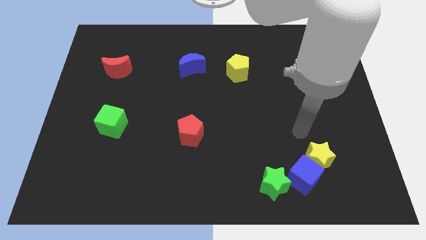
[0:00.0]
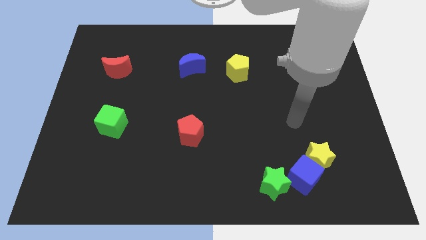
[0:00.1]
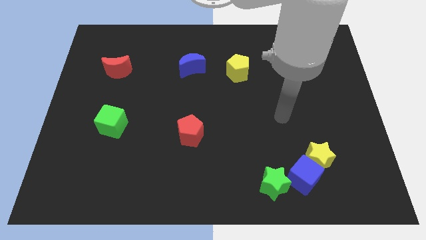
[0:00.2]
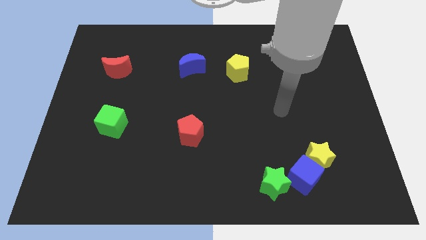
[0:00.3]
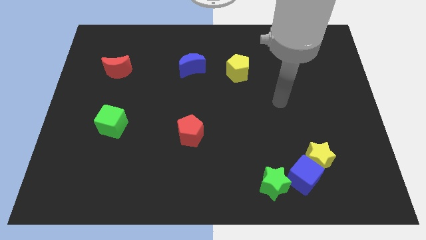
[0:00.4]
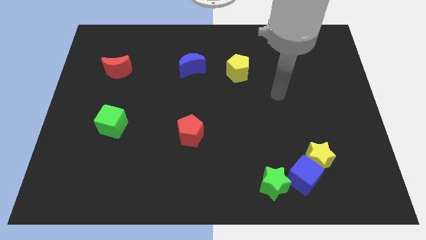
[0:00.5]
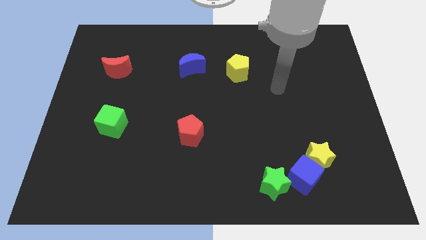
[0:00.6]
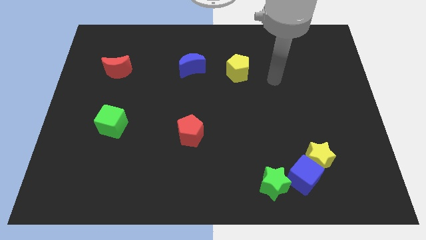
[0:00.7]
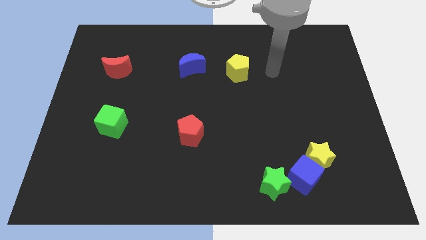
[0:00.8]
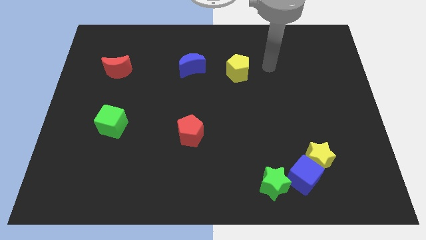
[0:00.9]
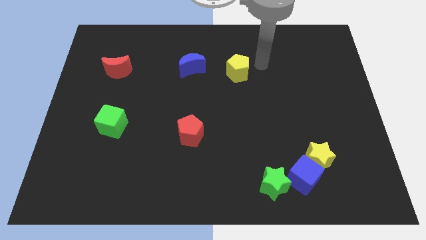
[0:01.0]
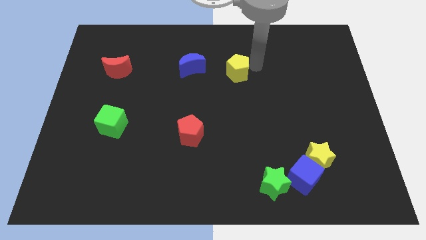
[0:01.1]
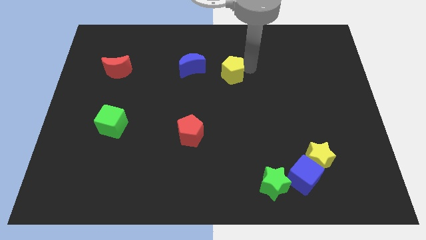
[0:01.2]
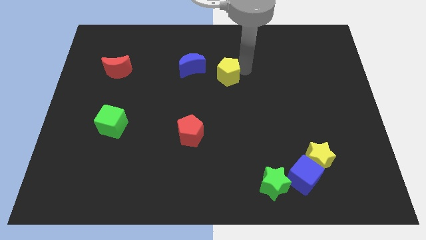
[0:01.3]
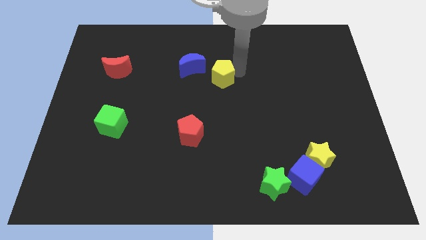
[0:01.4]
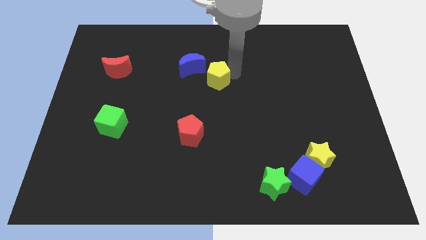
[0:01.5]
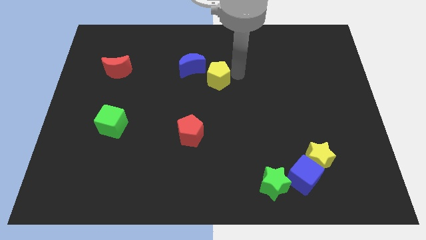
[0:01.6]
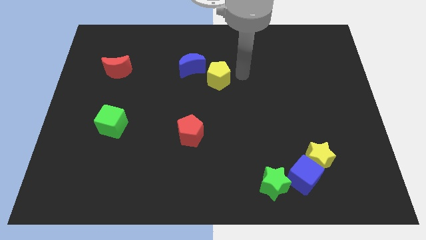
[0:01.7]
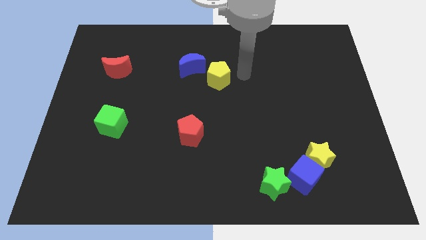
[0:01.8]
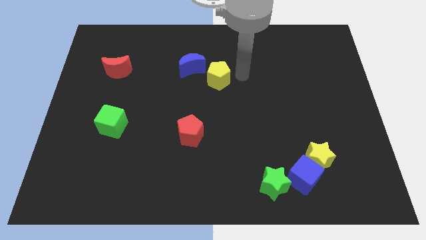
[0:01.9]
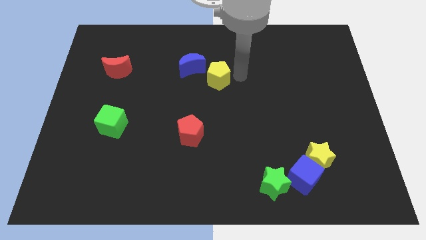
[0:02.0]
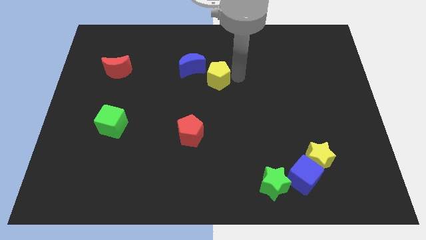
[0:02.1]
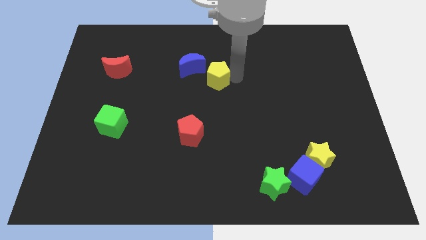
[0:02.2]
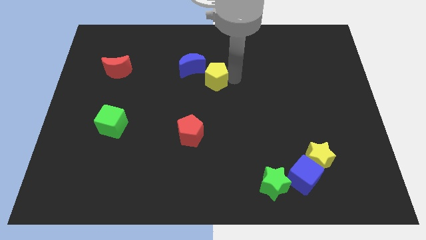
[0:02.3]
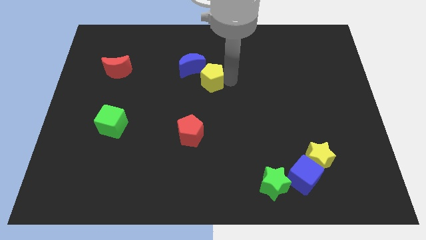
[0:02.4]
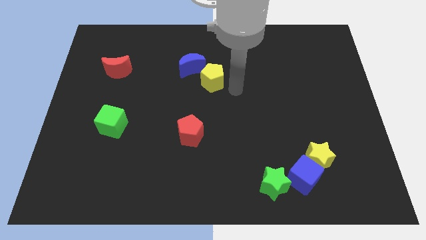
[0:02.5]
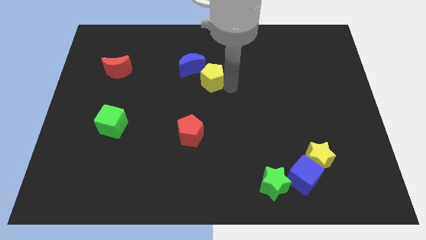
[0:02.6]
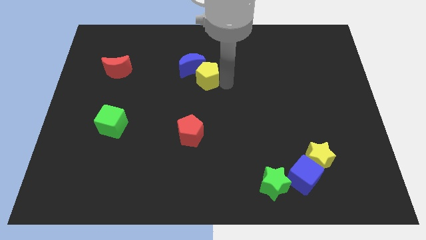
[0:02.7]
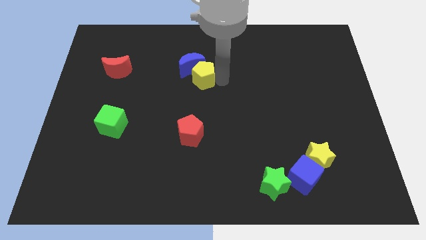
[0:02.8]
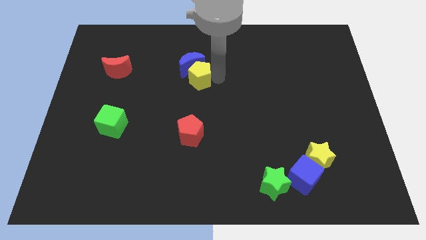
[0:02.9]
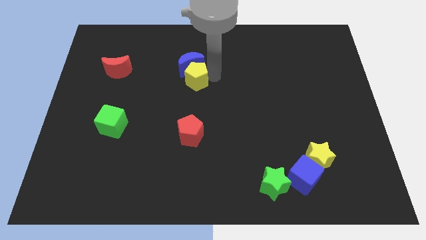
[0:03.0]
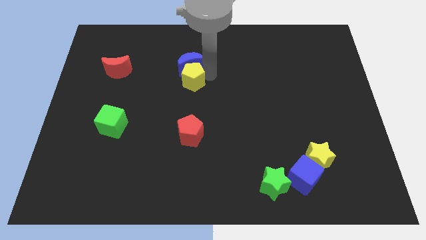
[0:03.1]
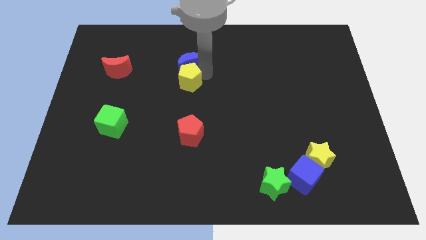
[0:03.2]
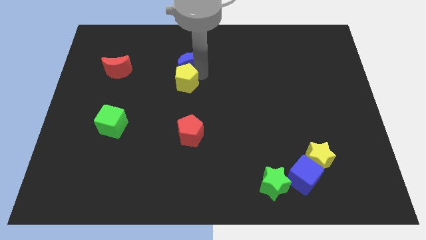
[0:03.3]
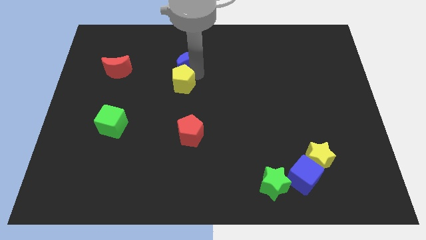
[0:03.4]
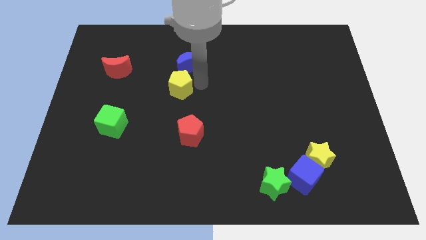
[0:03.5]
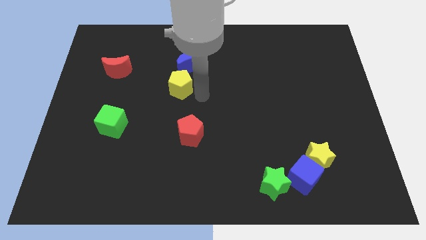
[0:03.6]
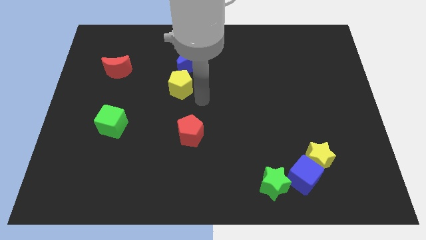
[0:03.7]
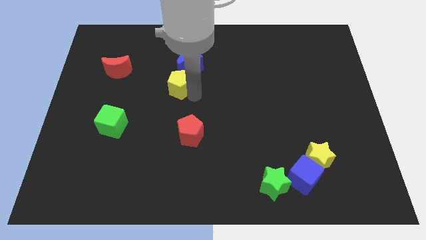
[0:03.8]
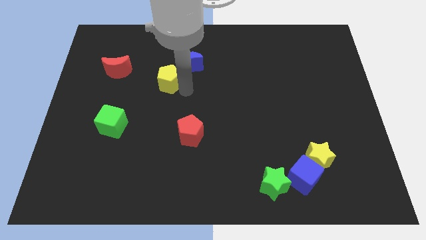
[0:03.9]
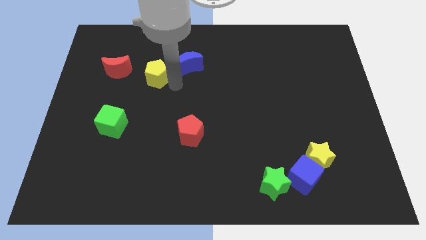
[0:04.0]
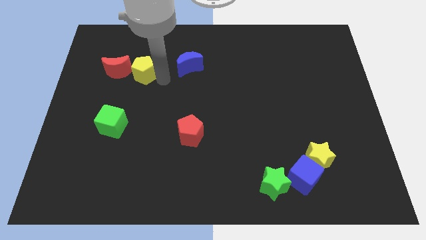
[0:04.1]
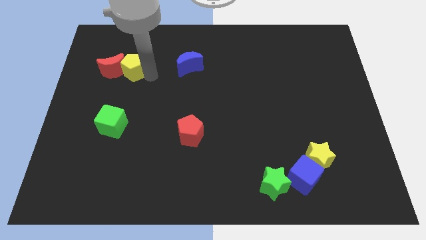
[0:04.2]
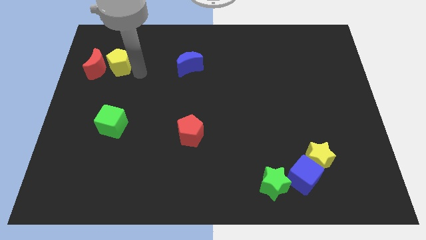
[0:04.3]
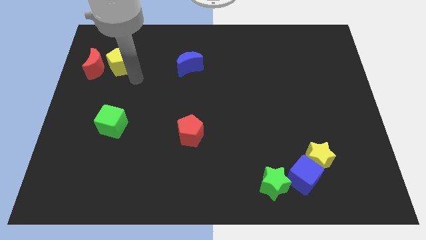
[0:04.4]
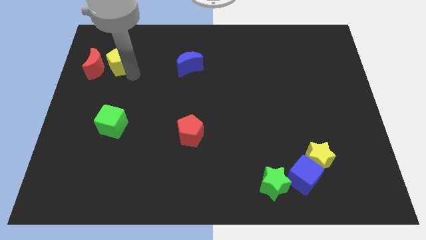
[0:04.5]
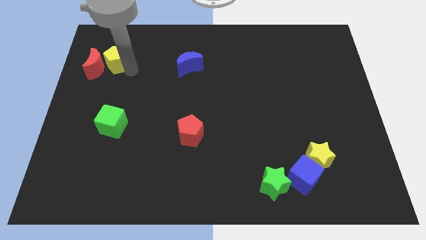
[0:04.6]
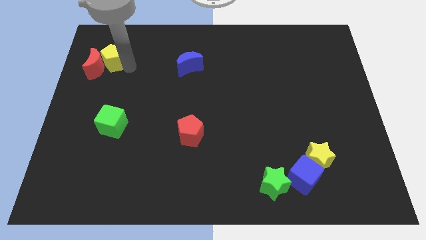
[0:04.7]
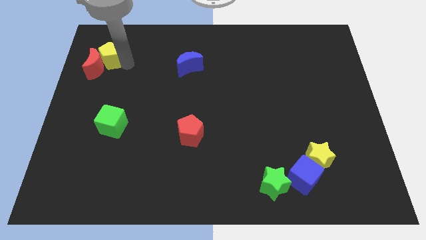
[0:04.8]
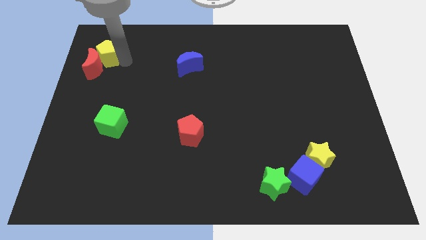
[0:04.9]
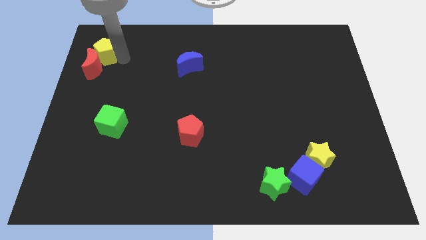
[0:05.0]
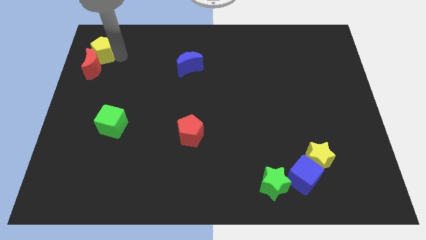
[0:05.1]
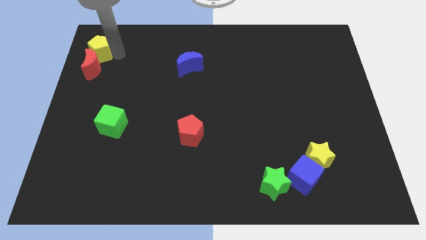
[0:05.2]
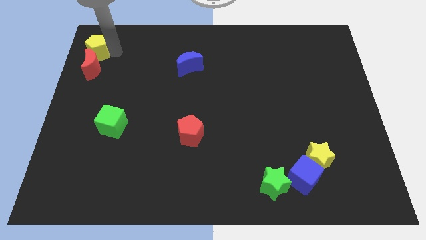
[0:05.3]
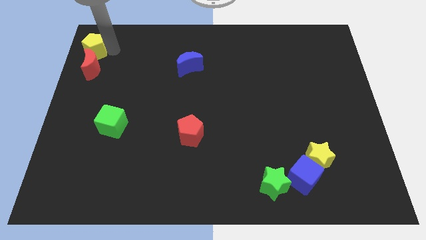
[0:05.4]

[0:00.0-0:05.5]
push the yellow pentagon to the top left corner

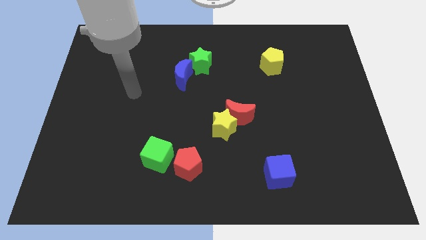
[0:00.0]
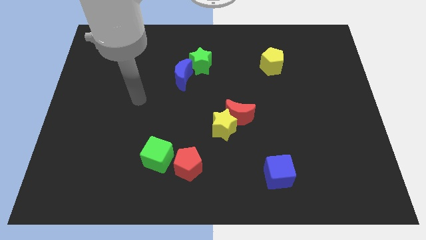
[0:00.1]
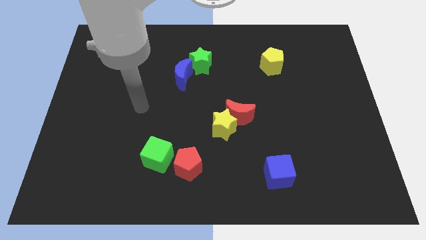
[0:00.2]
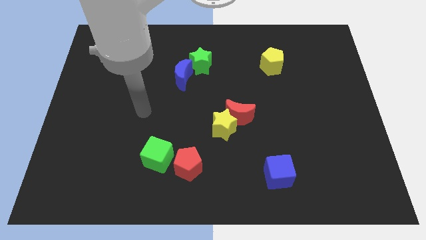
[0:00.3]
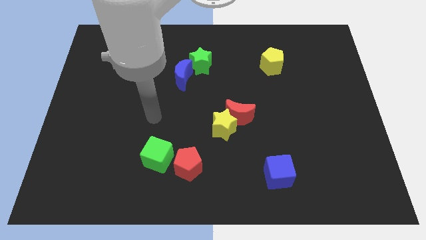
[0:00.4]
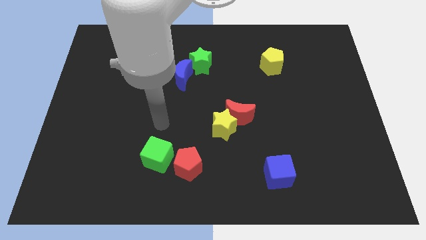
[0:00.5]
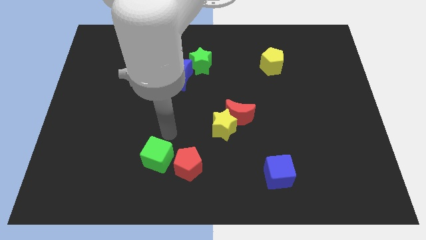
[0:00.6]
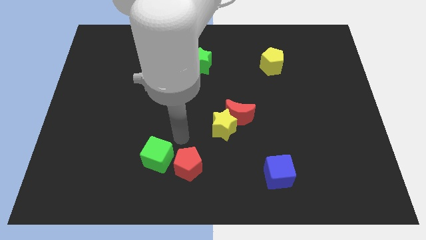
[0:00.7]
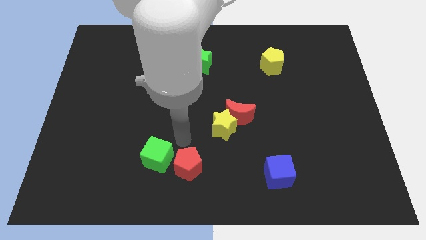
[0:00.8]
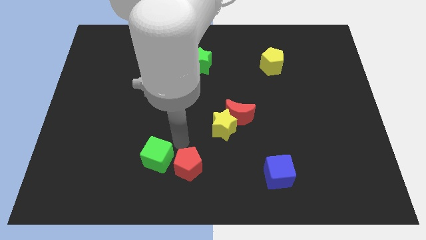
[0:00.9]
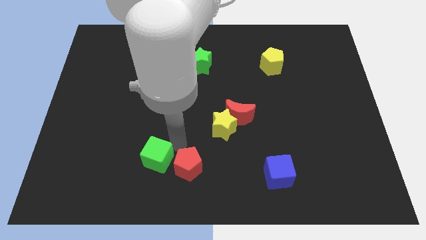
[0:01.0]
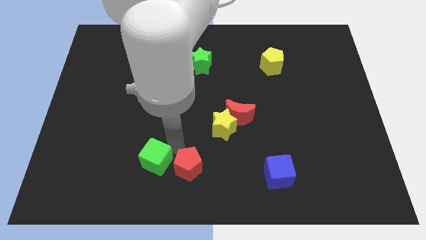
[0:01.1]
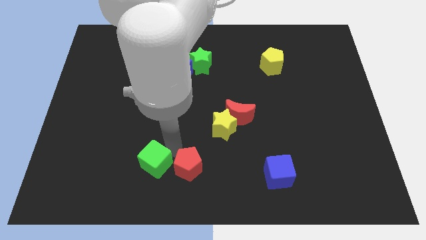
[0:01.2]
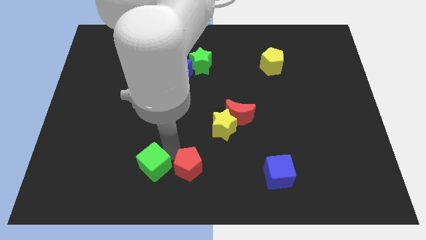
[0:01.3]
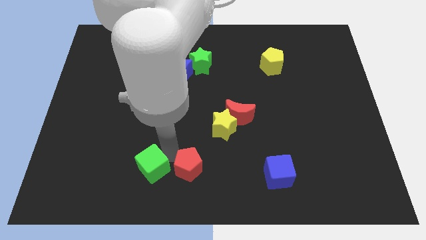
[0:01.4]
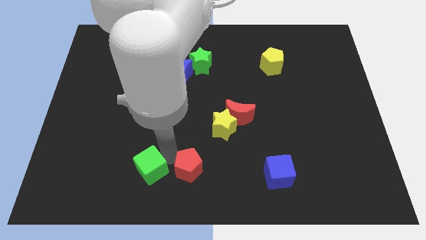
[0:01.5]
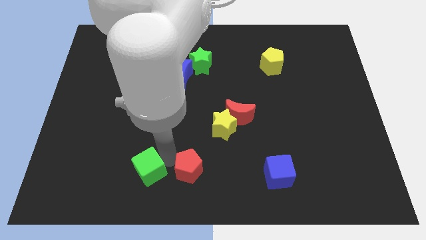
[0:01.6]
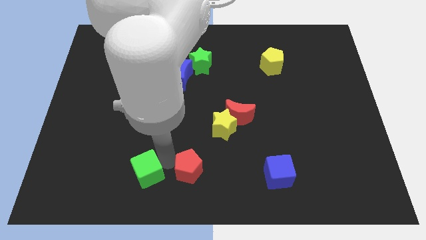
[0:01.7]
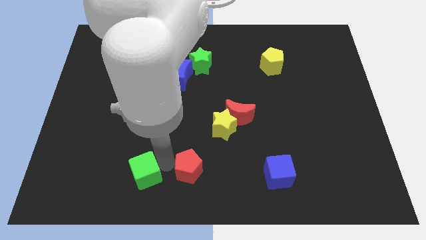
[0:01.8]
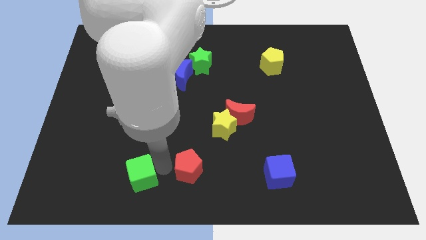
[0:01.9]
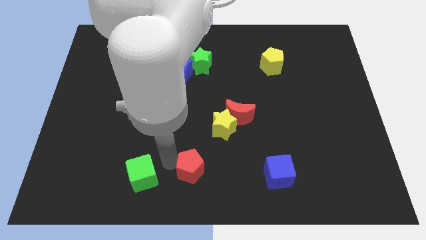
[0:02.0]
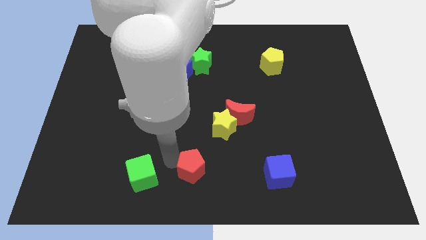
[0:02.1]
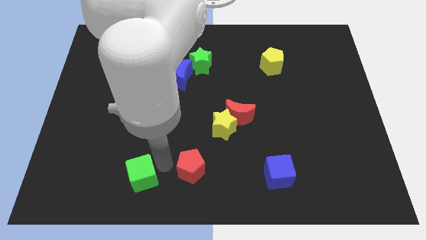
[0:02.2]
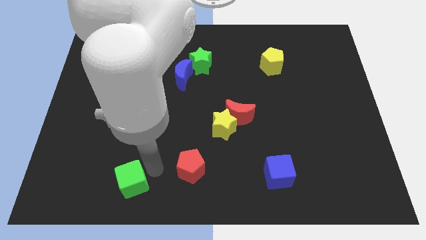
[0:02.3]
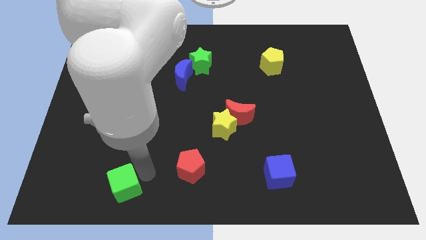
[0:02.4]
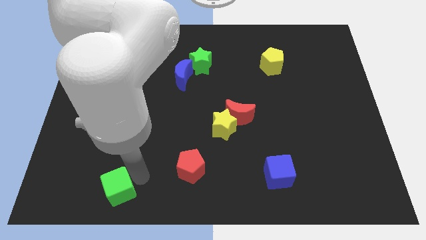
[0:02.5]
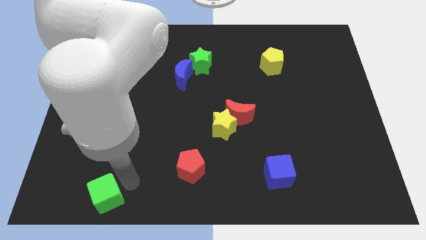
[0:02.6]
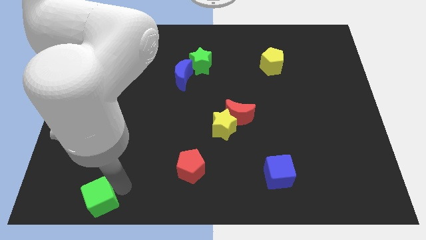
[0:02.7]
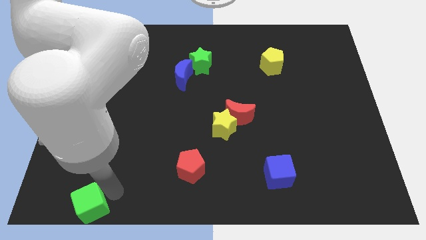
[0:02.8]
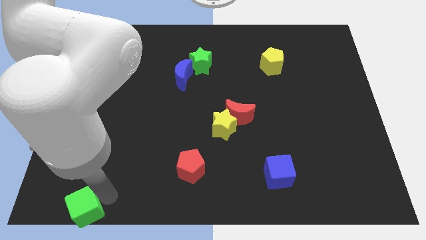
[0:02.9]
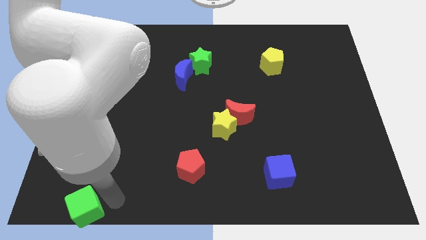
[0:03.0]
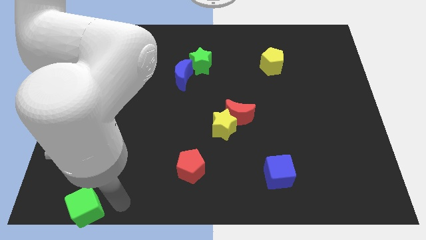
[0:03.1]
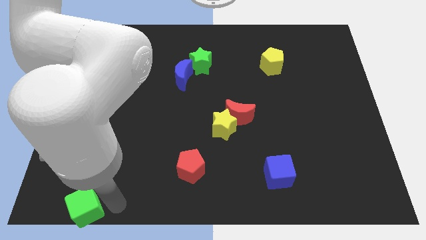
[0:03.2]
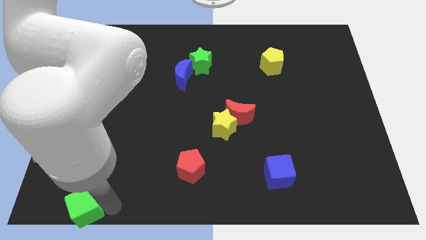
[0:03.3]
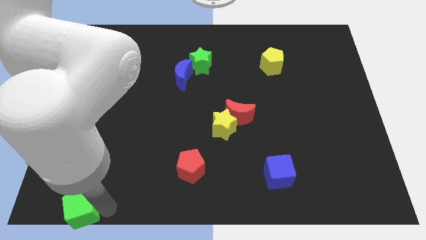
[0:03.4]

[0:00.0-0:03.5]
put the green cube to the bottom left corner
